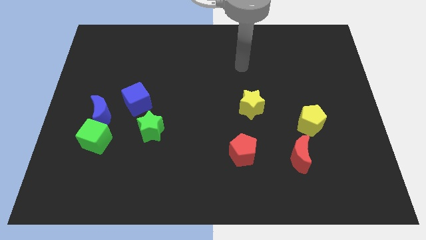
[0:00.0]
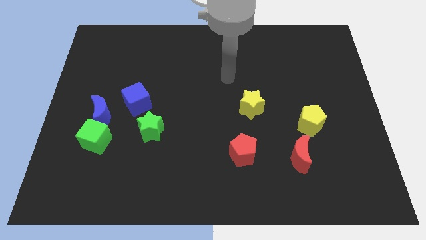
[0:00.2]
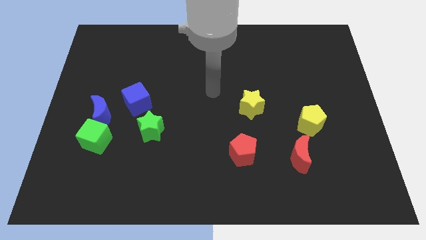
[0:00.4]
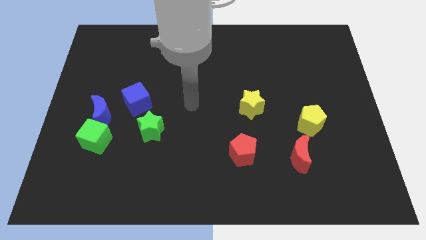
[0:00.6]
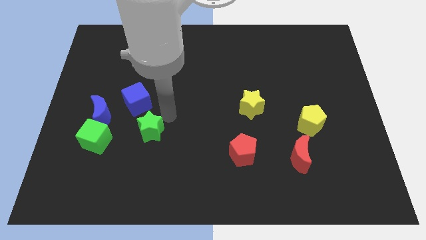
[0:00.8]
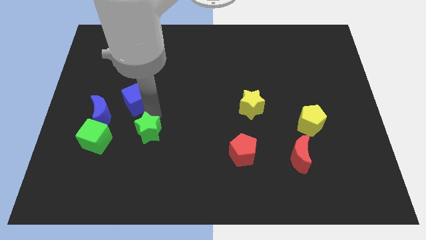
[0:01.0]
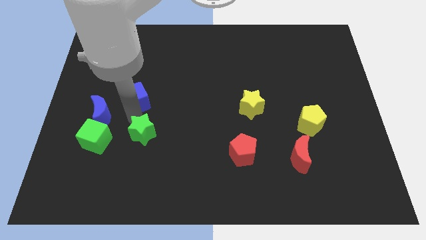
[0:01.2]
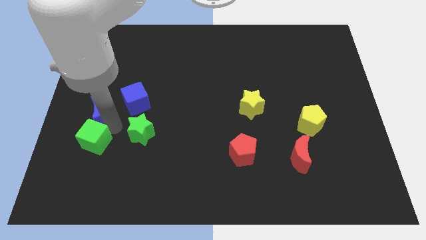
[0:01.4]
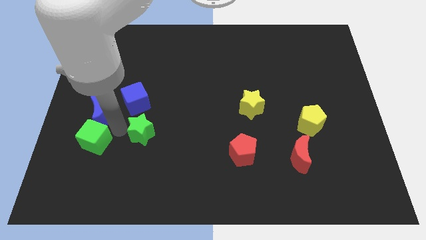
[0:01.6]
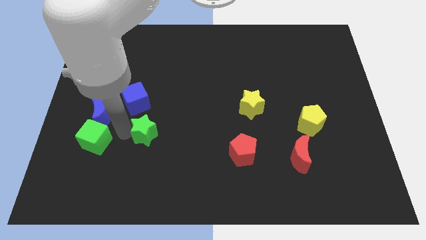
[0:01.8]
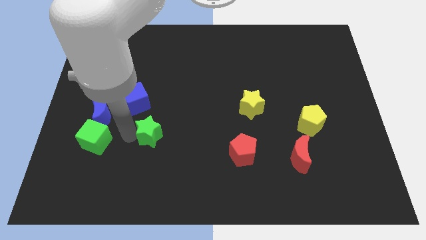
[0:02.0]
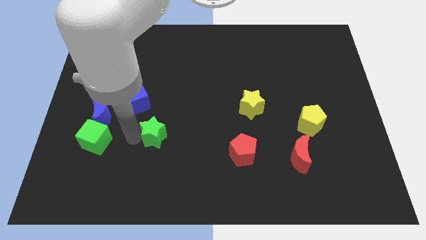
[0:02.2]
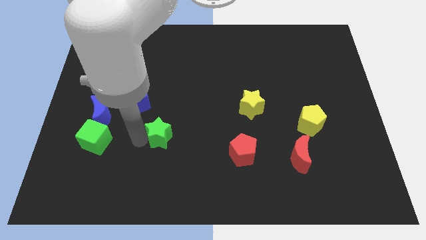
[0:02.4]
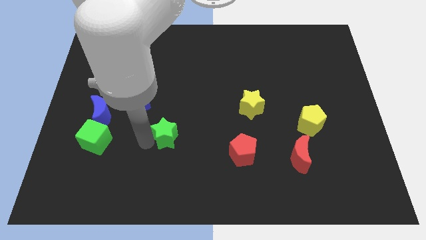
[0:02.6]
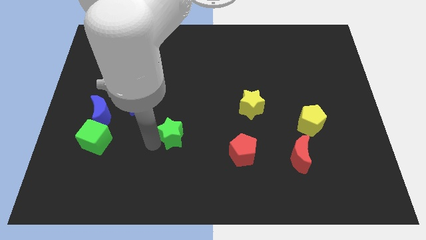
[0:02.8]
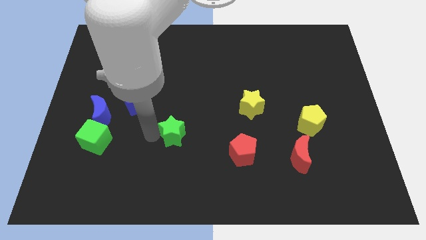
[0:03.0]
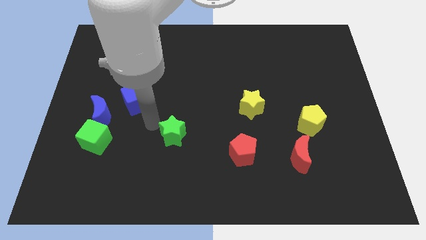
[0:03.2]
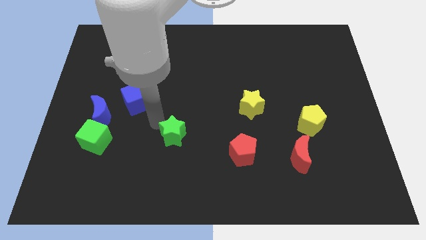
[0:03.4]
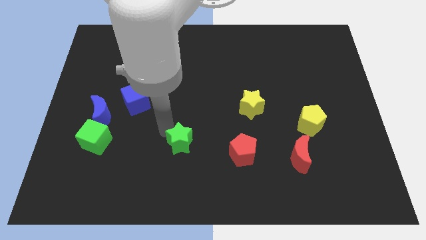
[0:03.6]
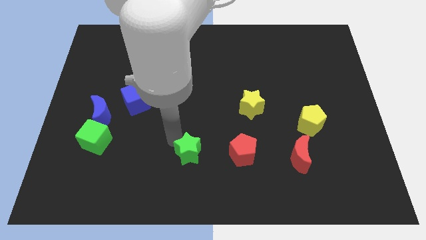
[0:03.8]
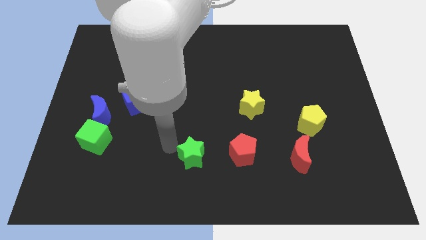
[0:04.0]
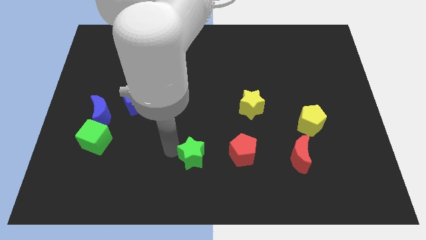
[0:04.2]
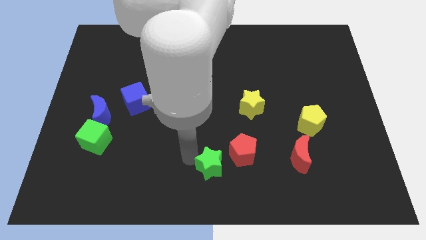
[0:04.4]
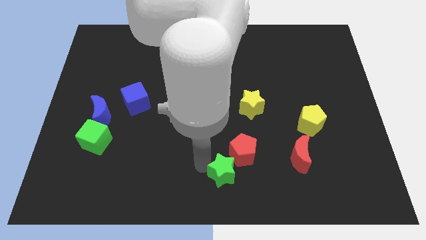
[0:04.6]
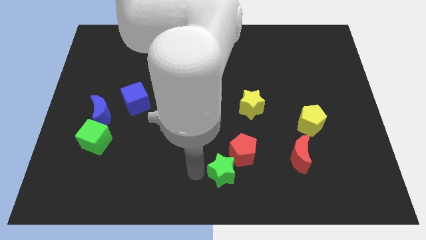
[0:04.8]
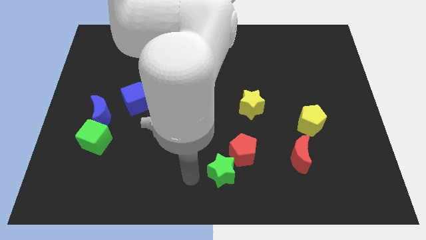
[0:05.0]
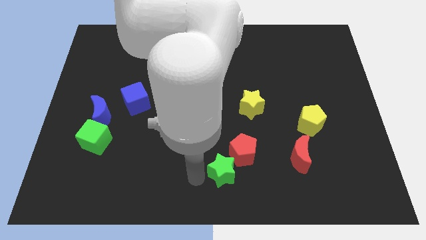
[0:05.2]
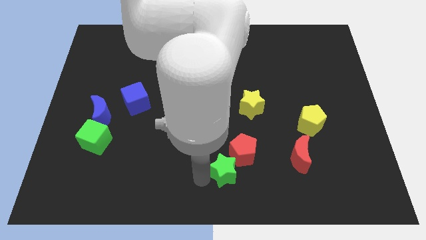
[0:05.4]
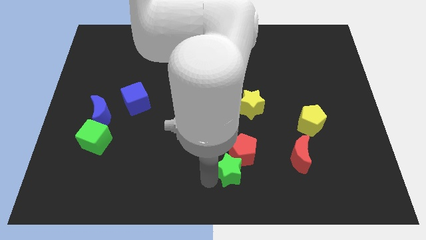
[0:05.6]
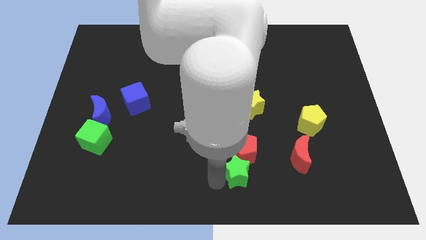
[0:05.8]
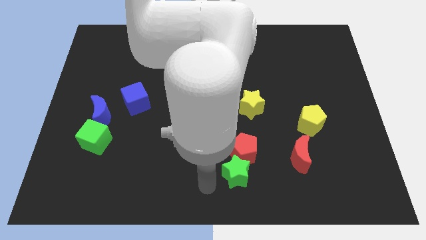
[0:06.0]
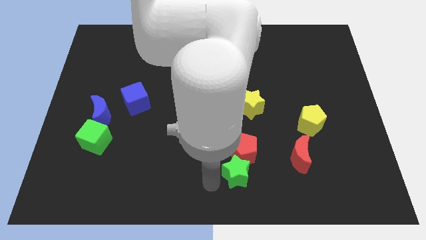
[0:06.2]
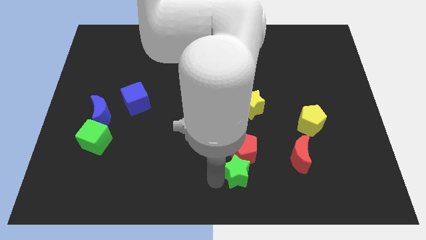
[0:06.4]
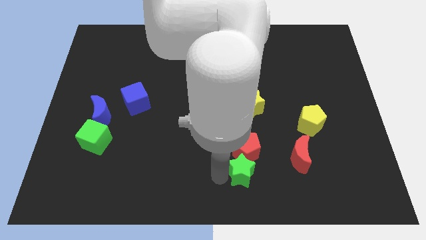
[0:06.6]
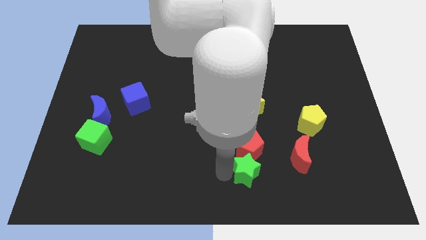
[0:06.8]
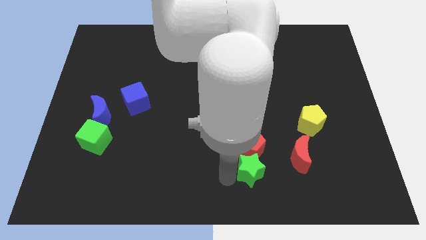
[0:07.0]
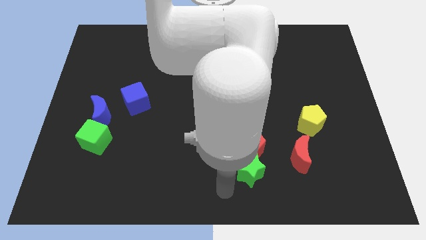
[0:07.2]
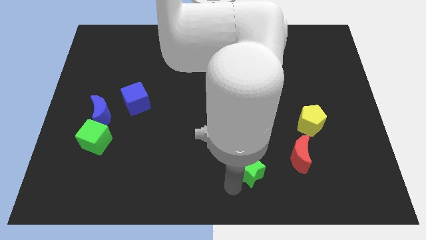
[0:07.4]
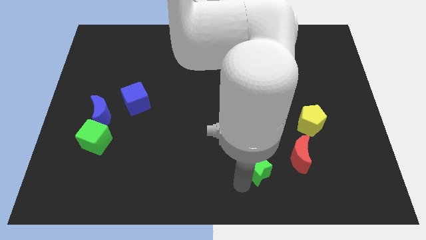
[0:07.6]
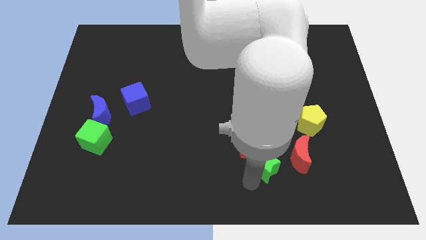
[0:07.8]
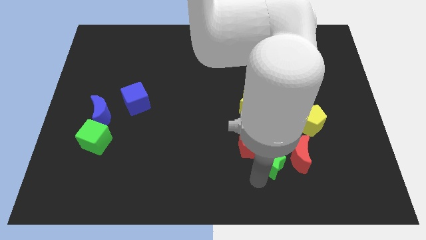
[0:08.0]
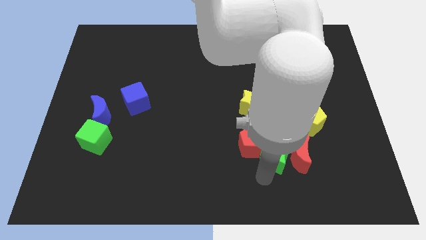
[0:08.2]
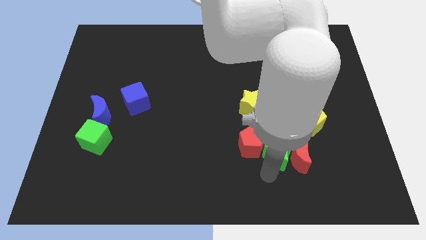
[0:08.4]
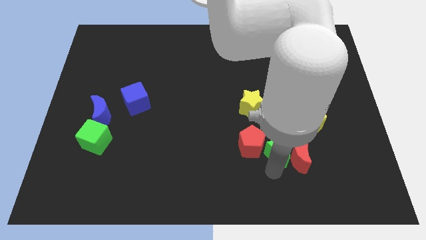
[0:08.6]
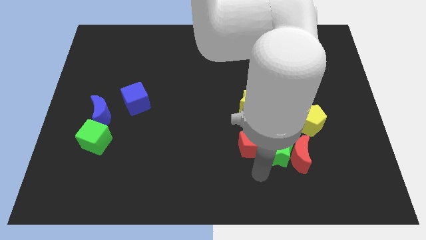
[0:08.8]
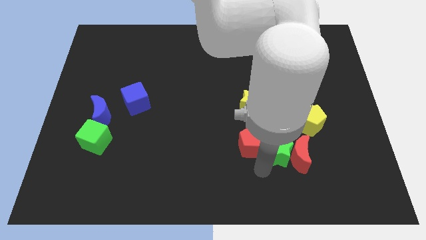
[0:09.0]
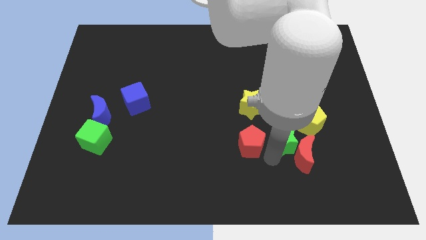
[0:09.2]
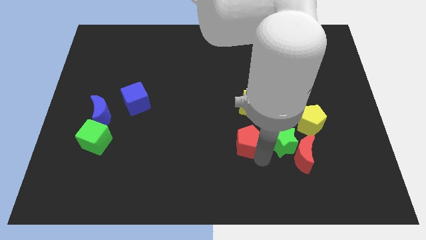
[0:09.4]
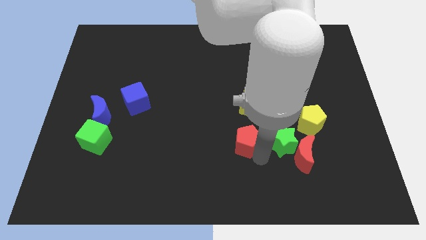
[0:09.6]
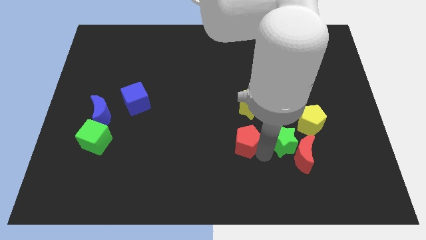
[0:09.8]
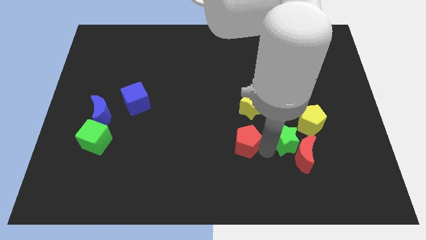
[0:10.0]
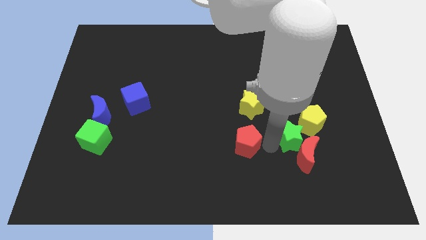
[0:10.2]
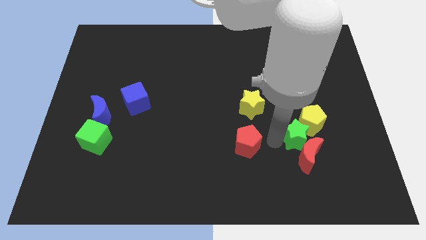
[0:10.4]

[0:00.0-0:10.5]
move the green star next to the yellow pentagon

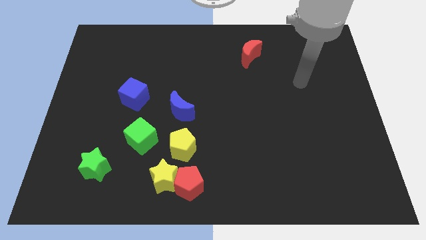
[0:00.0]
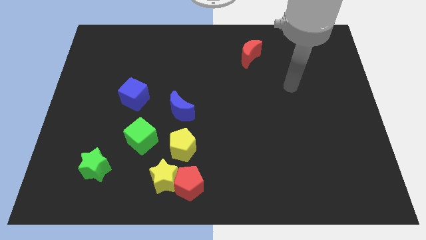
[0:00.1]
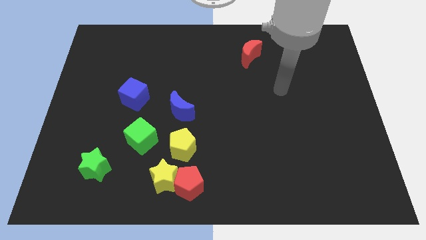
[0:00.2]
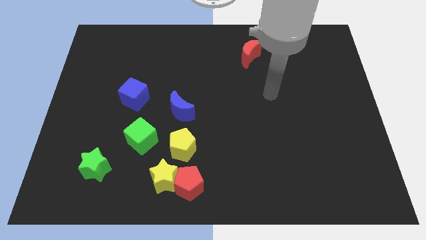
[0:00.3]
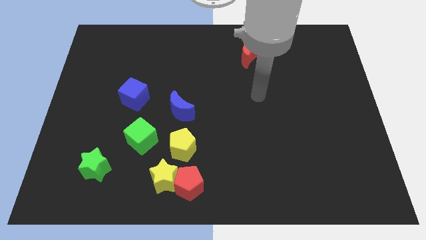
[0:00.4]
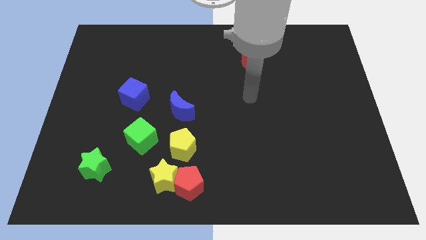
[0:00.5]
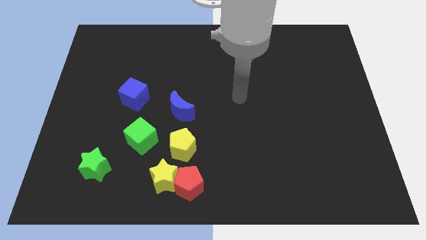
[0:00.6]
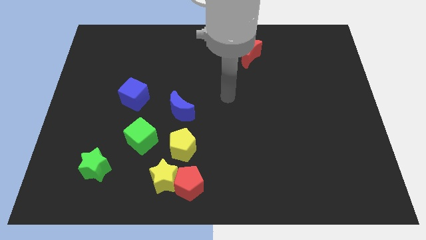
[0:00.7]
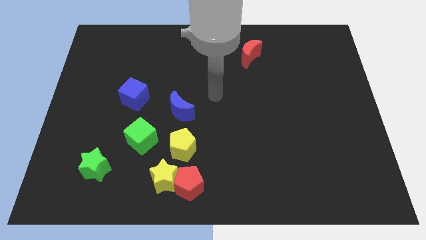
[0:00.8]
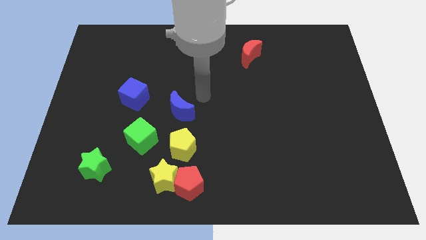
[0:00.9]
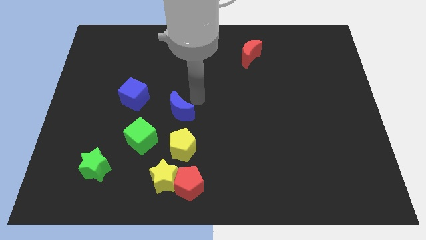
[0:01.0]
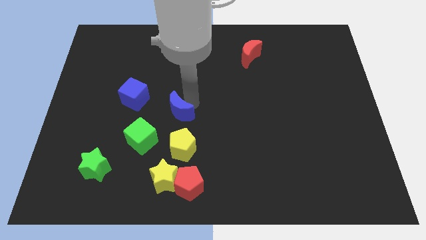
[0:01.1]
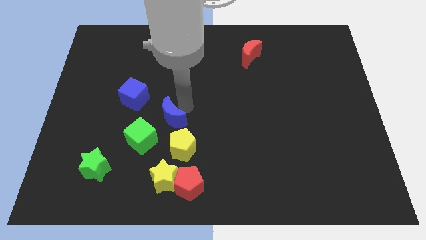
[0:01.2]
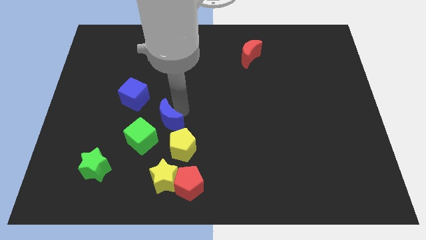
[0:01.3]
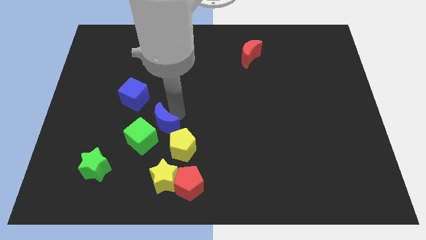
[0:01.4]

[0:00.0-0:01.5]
move the blue moon towards the green cube
